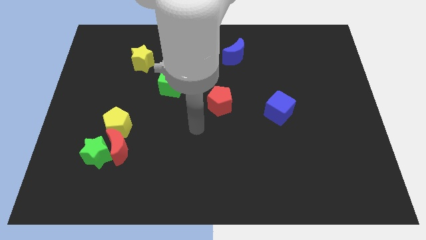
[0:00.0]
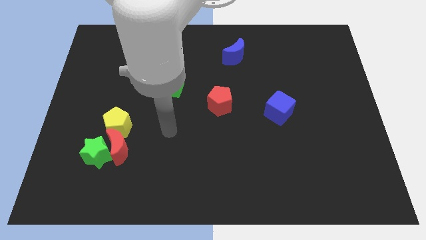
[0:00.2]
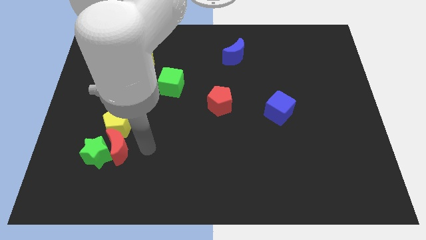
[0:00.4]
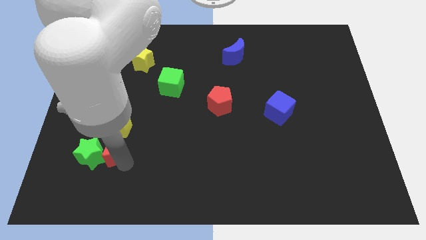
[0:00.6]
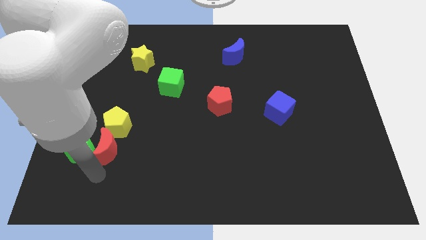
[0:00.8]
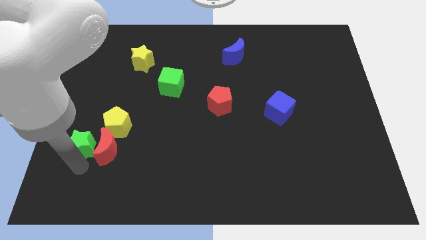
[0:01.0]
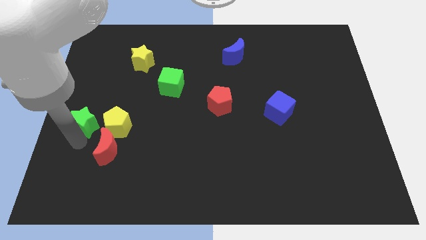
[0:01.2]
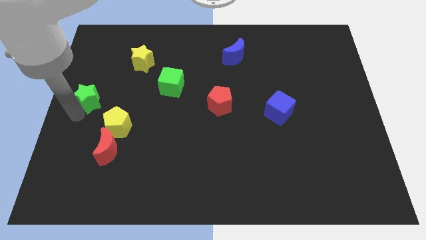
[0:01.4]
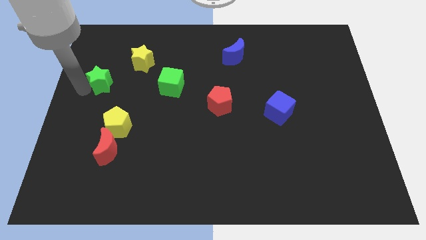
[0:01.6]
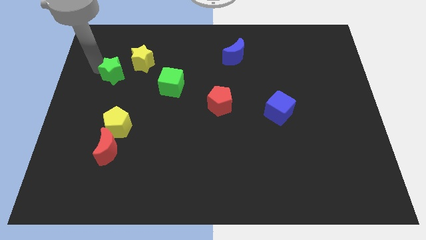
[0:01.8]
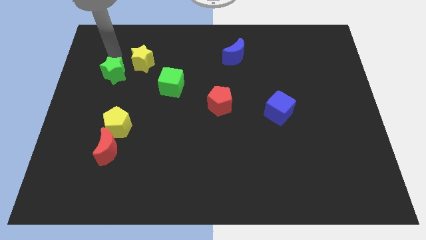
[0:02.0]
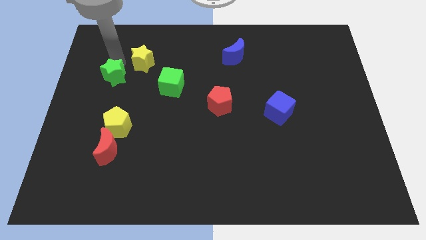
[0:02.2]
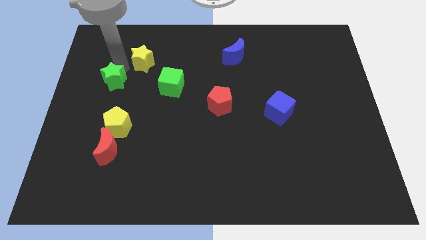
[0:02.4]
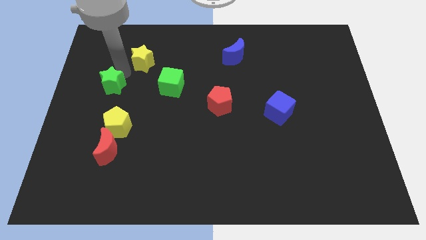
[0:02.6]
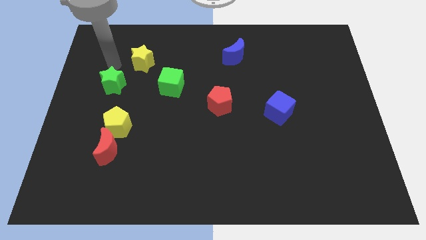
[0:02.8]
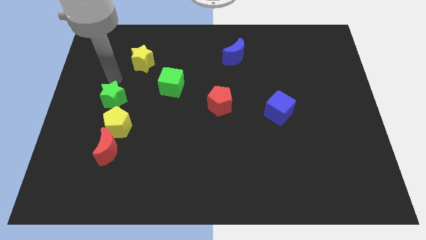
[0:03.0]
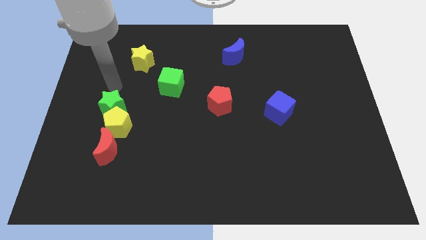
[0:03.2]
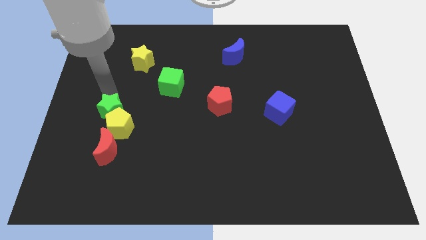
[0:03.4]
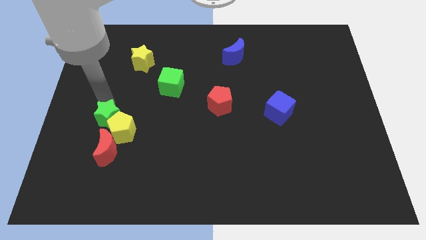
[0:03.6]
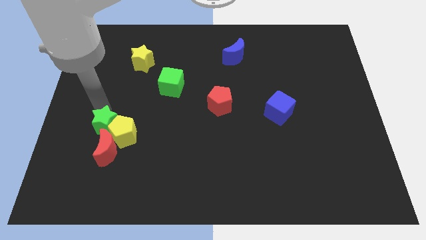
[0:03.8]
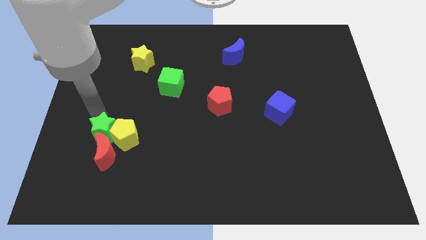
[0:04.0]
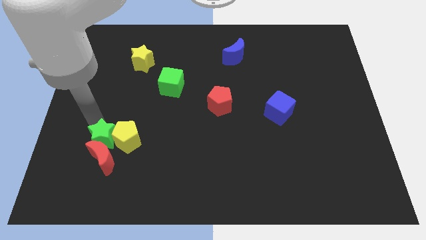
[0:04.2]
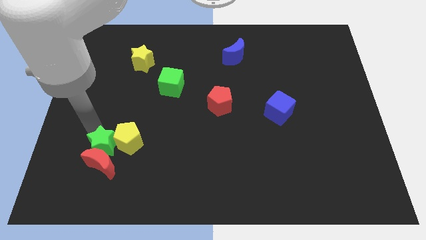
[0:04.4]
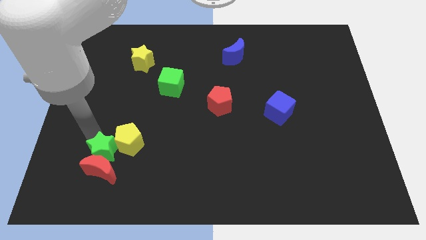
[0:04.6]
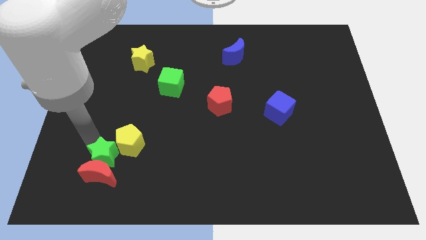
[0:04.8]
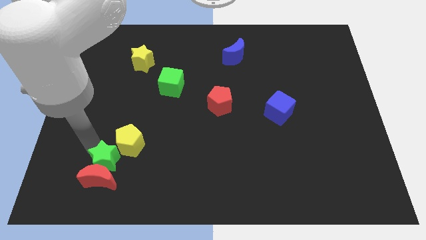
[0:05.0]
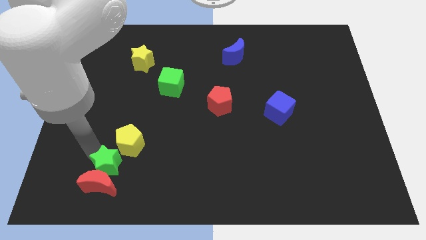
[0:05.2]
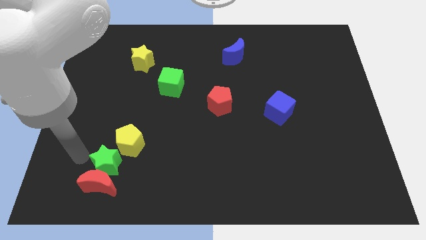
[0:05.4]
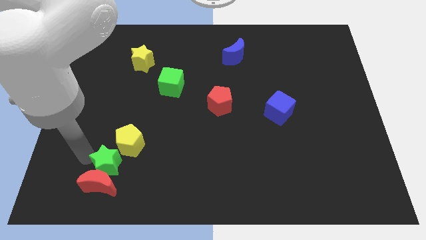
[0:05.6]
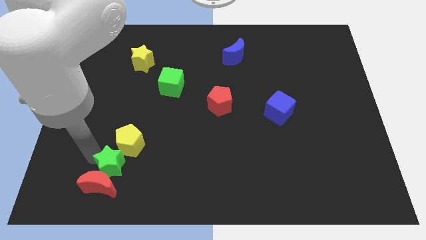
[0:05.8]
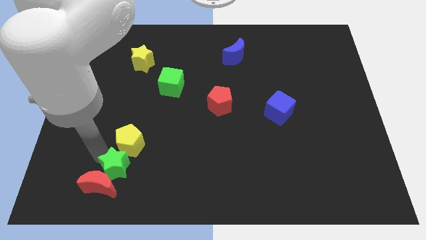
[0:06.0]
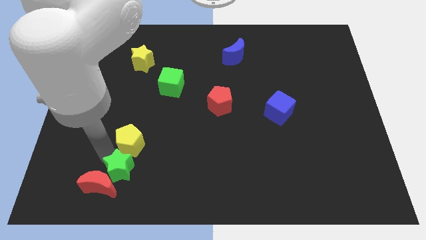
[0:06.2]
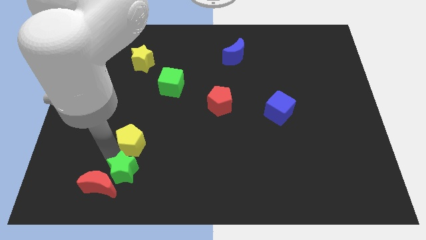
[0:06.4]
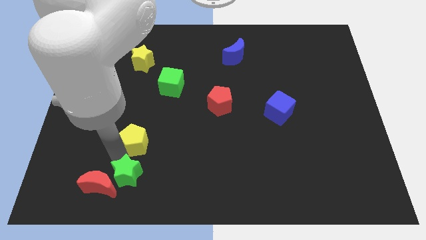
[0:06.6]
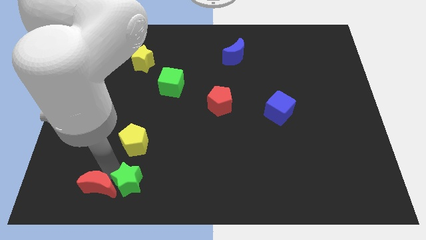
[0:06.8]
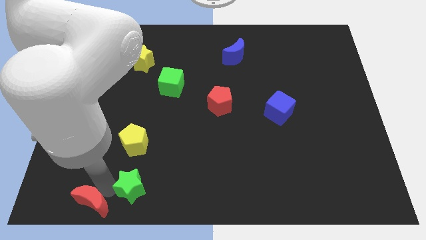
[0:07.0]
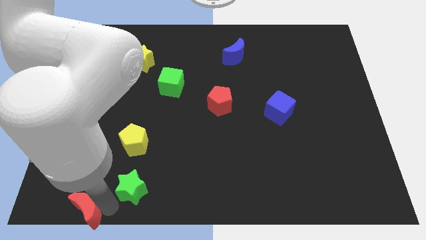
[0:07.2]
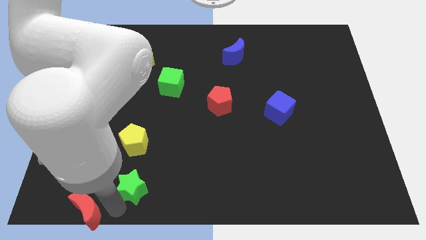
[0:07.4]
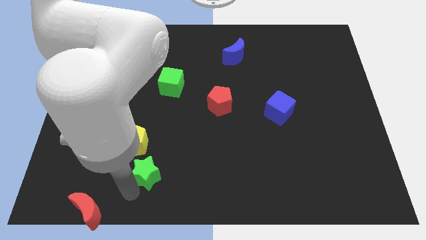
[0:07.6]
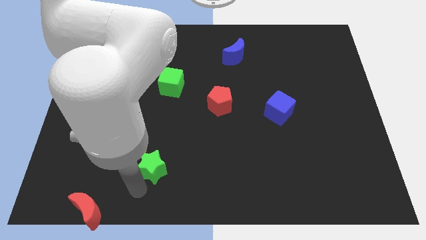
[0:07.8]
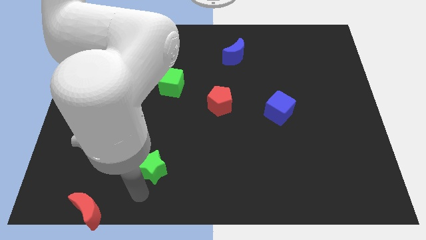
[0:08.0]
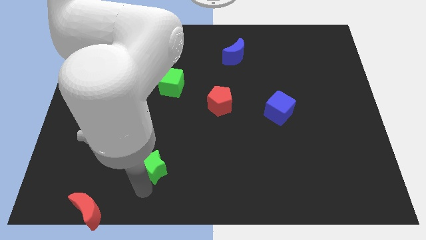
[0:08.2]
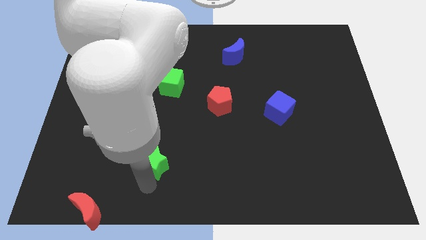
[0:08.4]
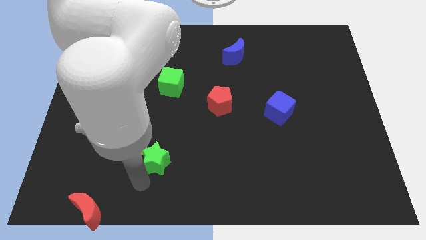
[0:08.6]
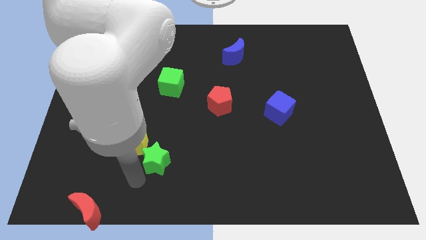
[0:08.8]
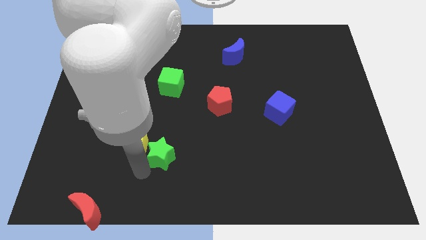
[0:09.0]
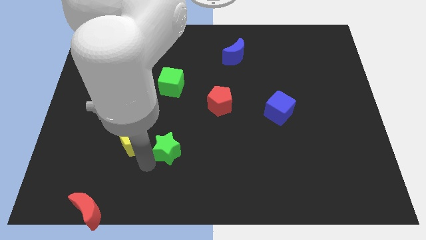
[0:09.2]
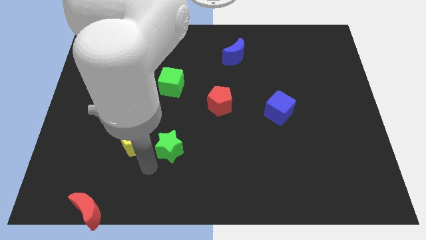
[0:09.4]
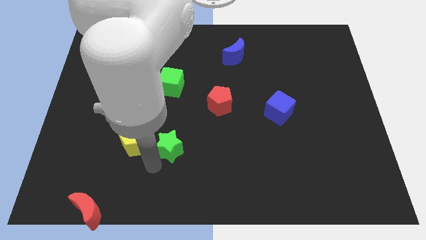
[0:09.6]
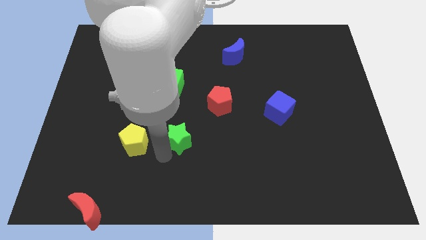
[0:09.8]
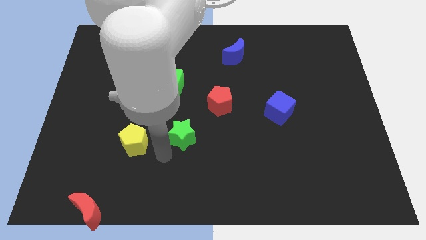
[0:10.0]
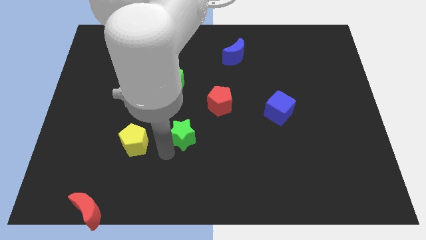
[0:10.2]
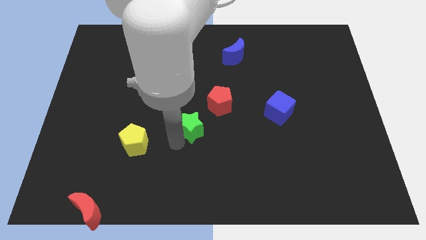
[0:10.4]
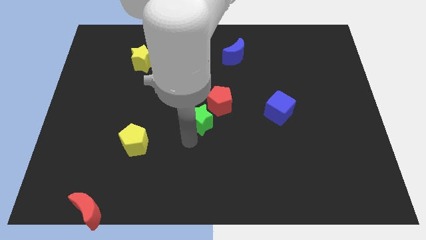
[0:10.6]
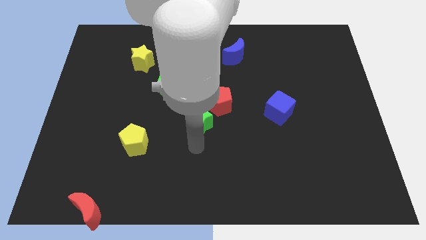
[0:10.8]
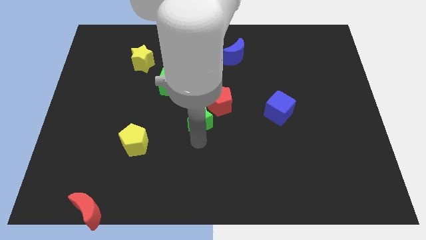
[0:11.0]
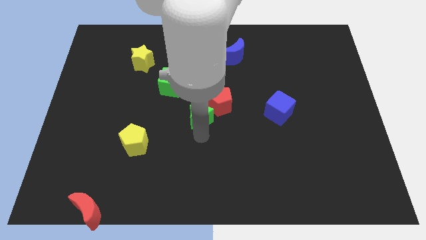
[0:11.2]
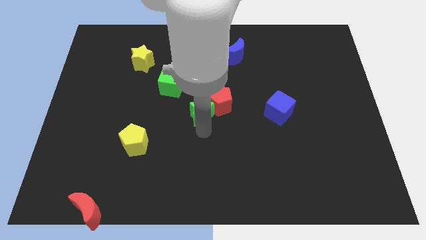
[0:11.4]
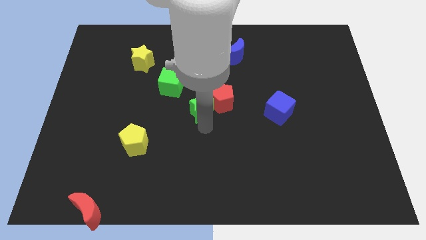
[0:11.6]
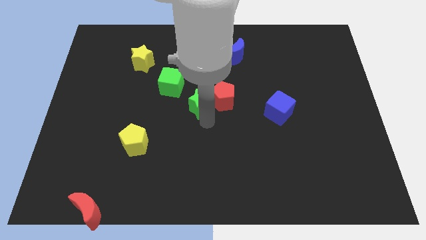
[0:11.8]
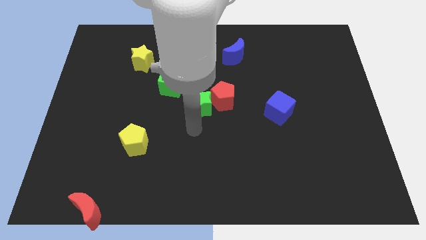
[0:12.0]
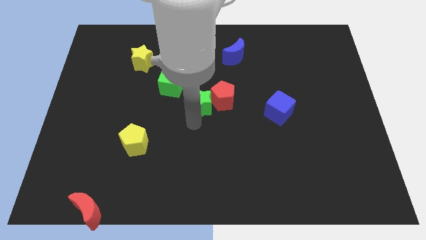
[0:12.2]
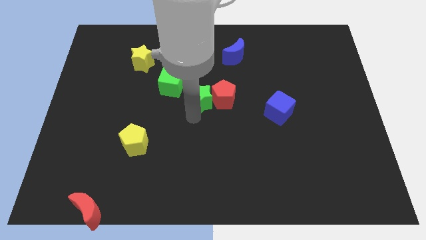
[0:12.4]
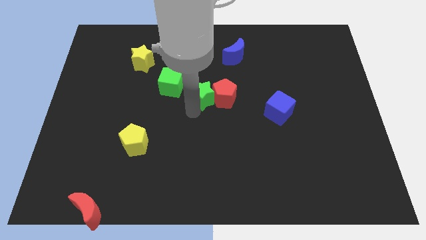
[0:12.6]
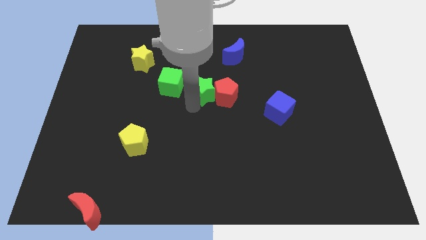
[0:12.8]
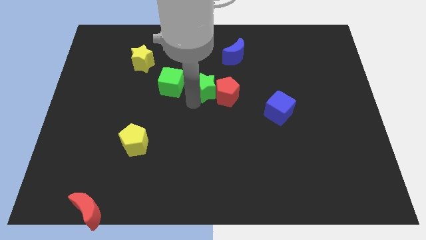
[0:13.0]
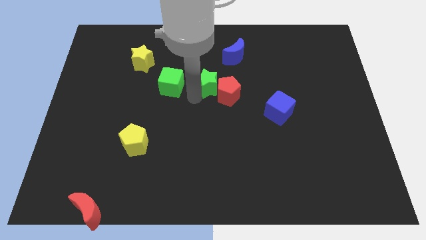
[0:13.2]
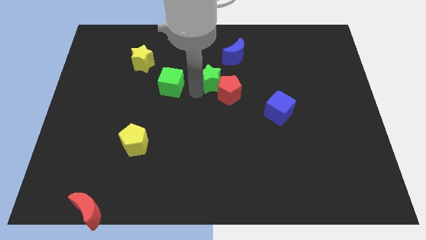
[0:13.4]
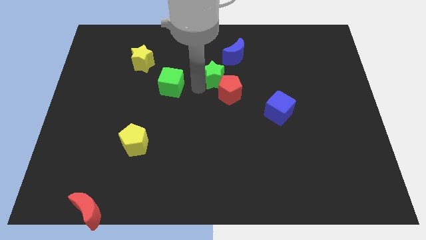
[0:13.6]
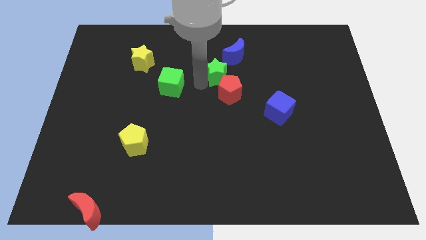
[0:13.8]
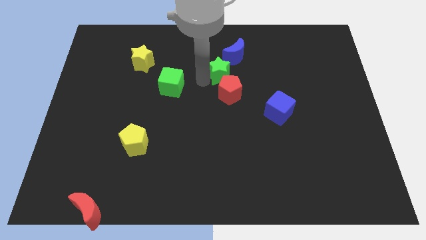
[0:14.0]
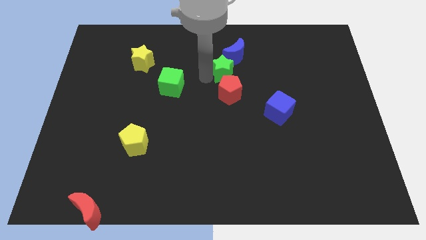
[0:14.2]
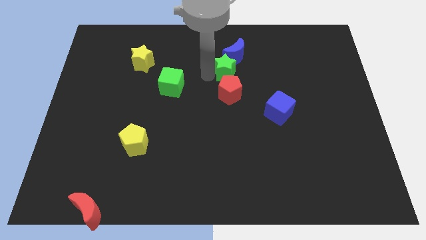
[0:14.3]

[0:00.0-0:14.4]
put the green star to the blue moon
